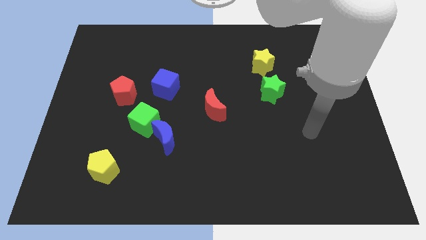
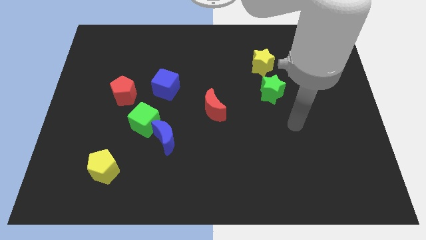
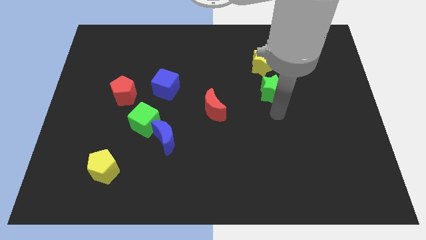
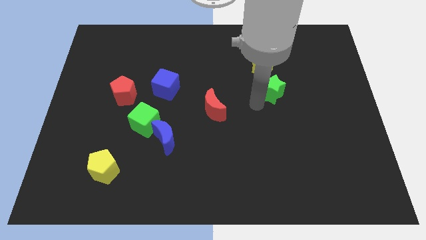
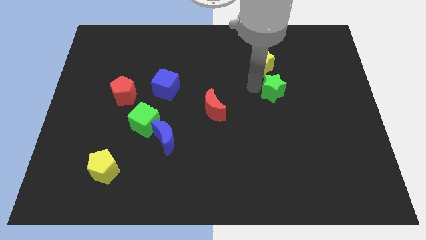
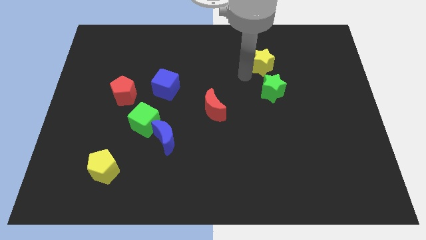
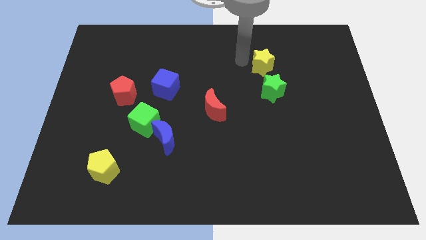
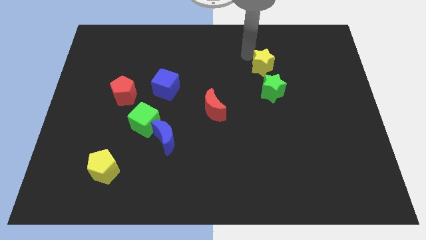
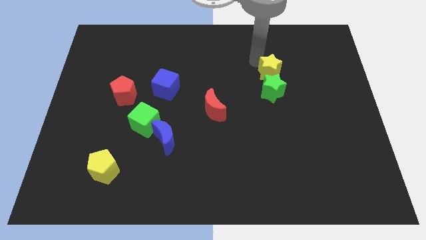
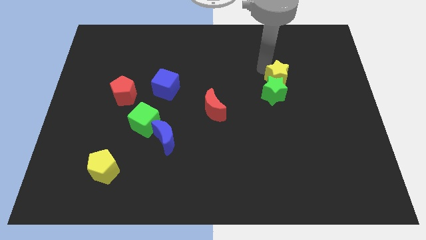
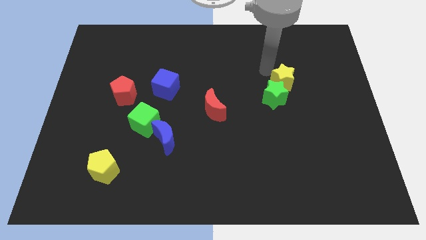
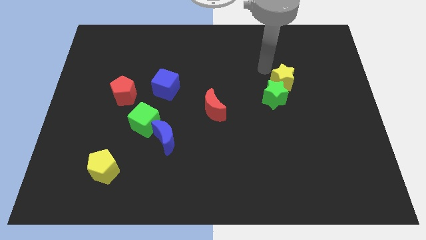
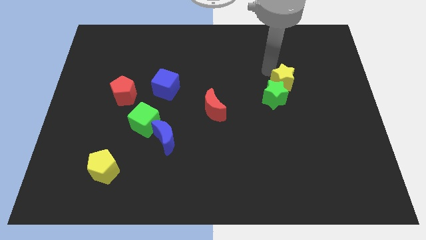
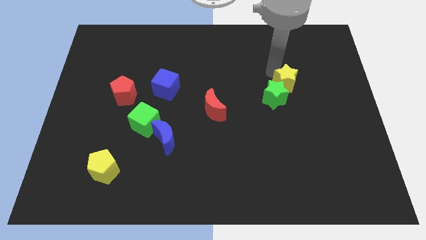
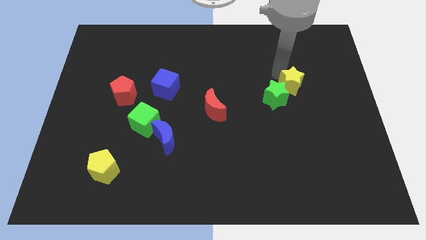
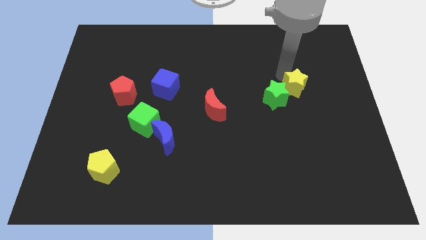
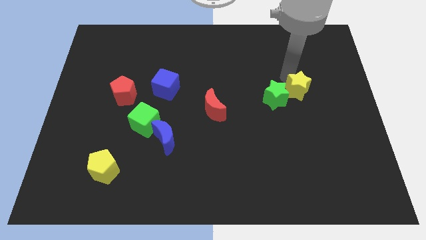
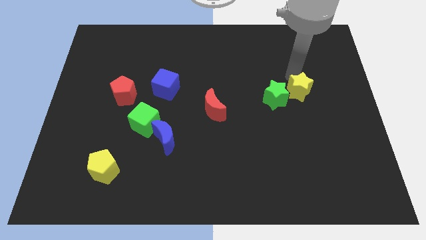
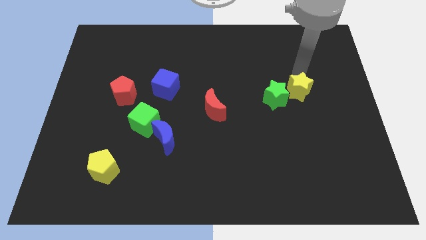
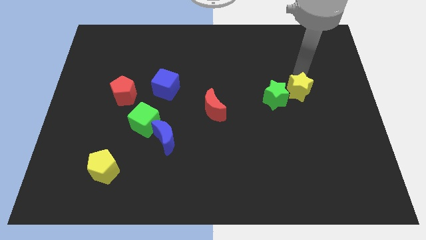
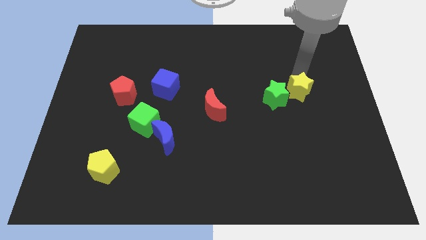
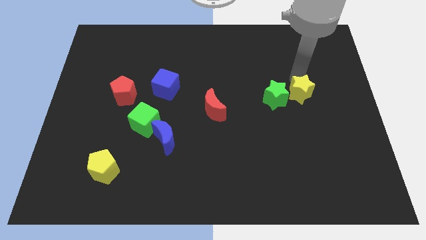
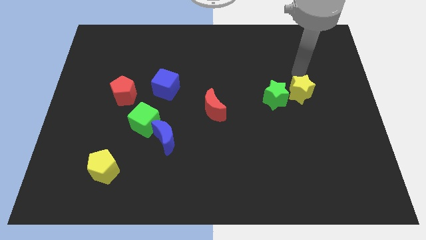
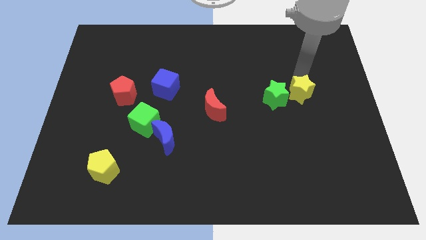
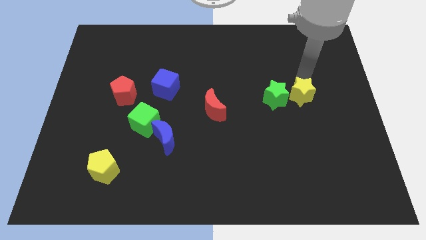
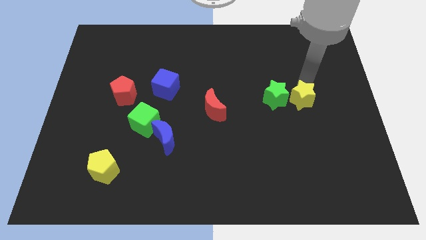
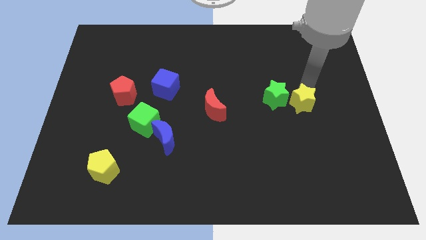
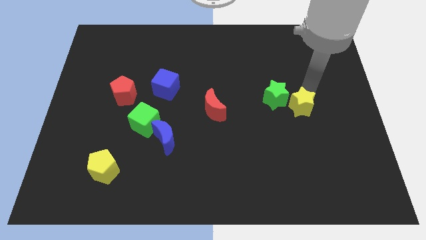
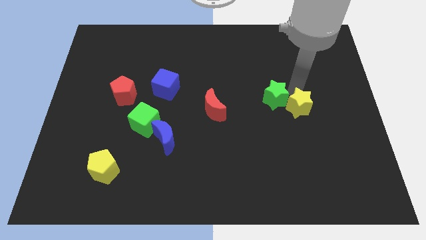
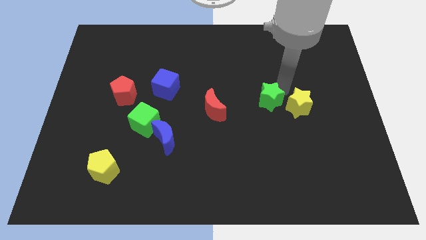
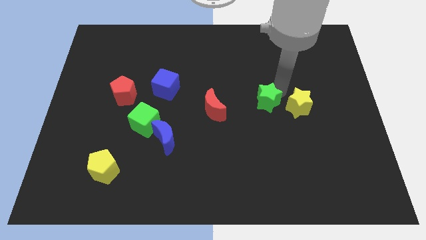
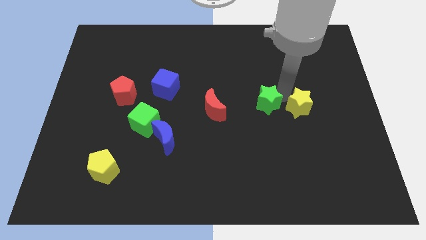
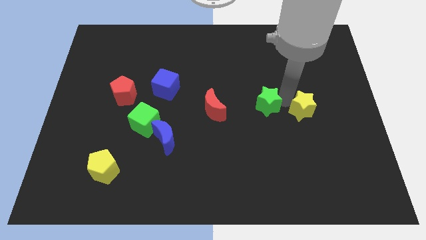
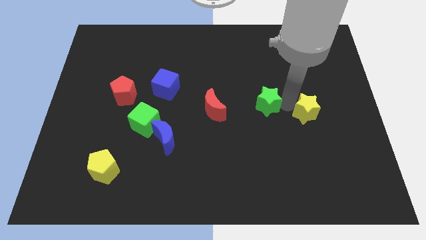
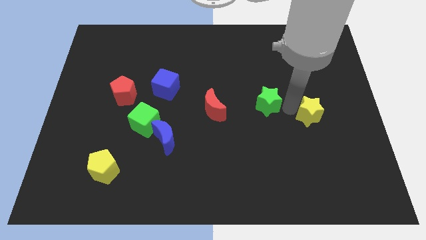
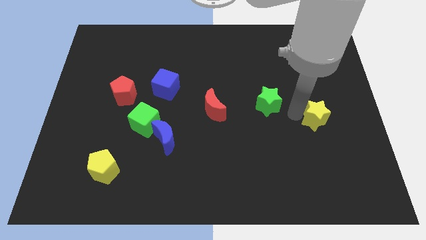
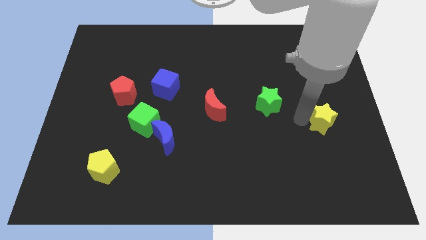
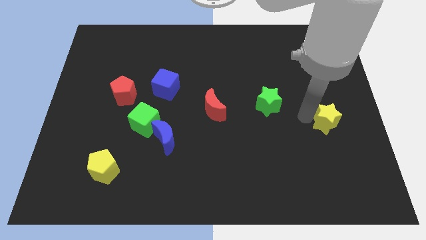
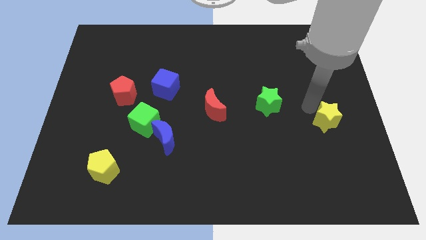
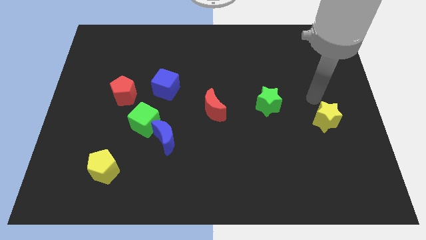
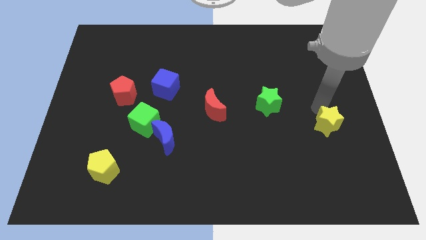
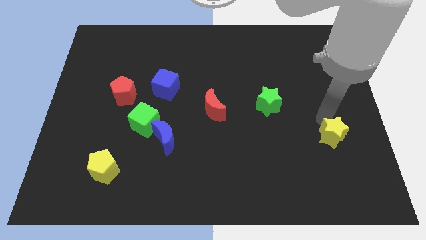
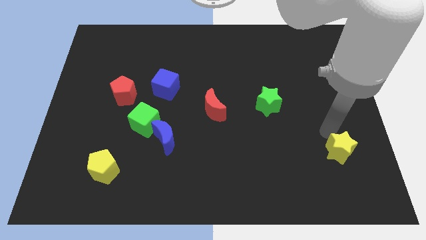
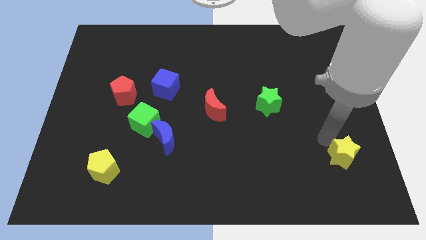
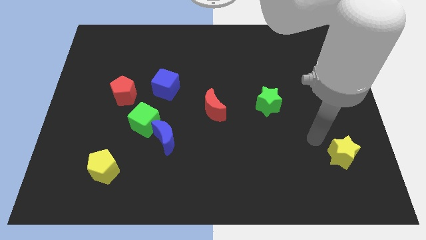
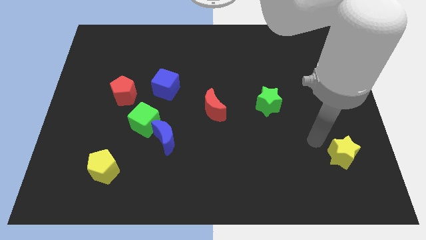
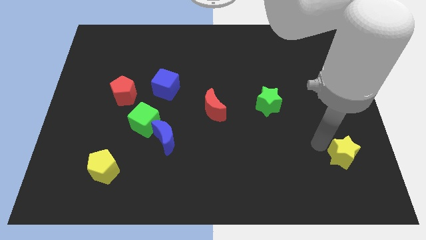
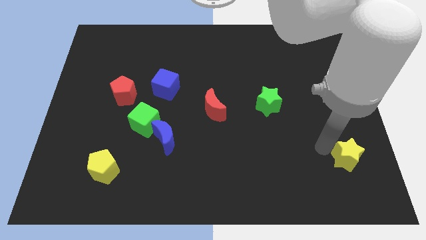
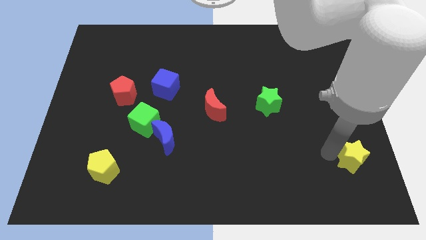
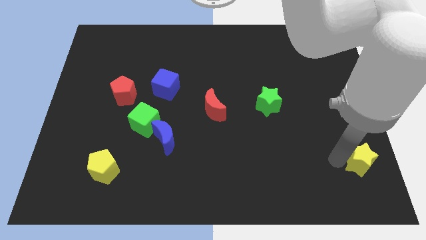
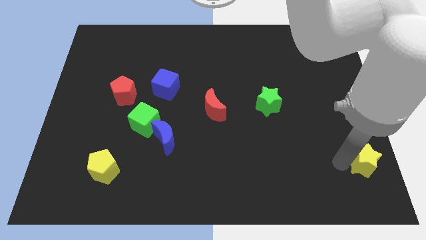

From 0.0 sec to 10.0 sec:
move the yellow star to the lower right corner
